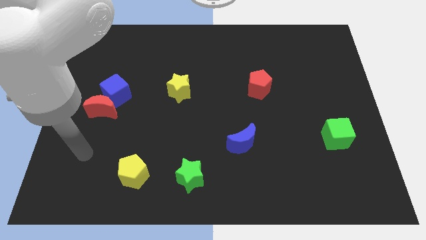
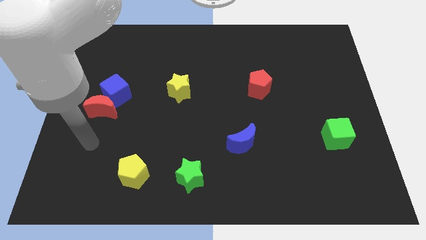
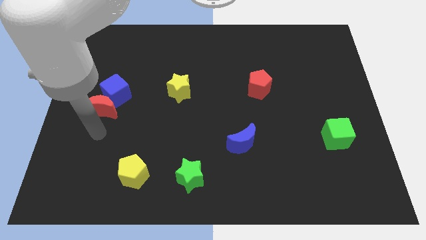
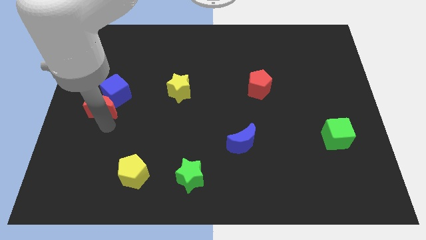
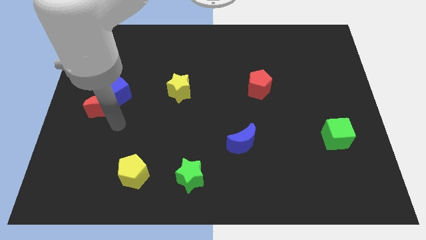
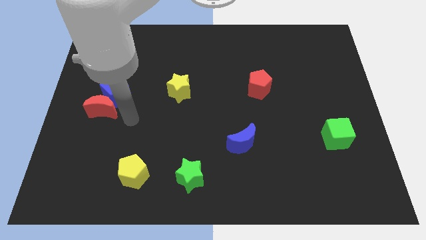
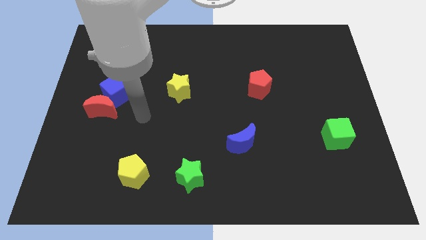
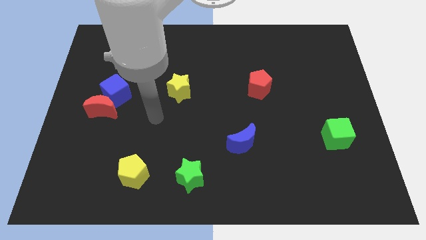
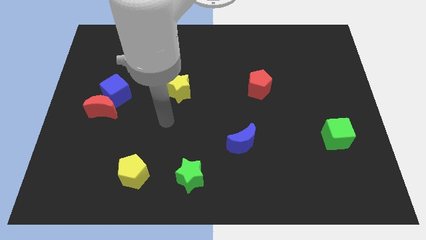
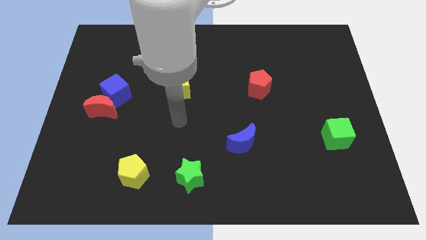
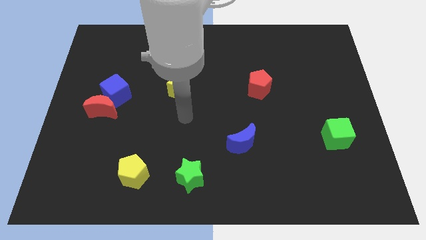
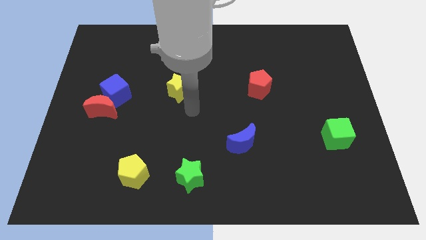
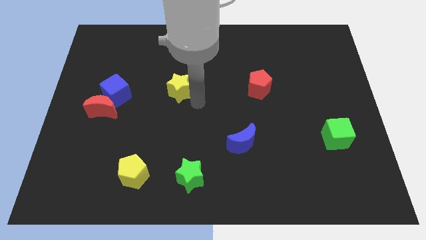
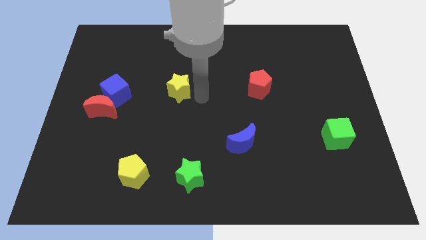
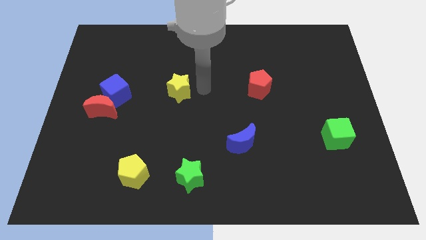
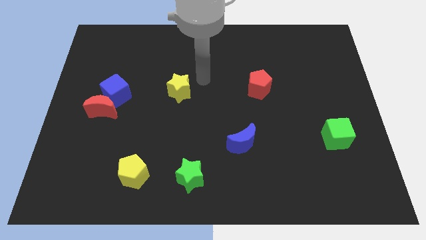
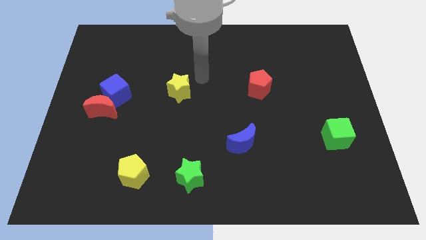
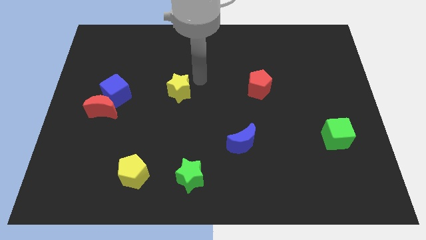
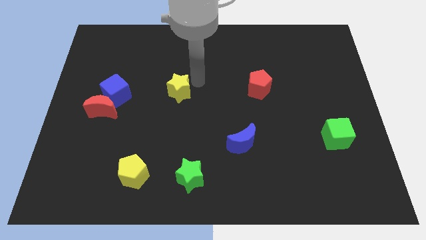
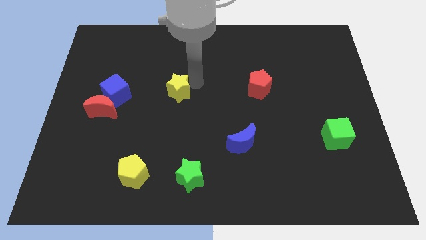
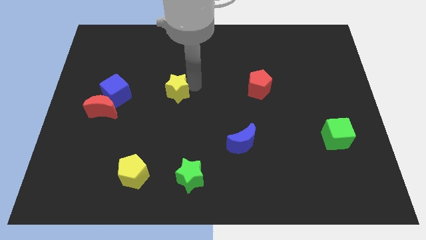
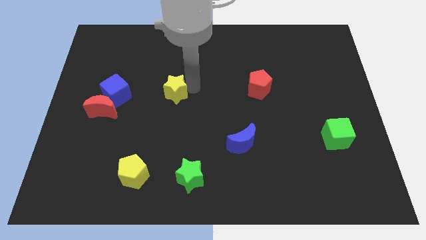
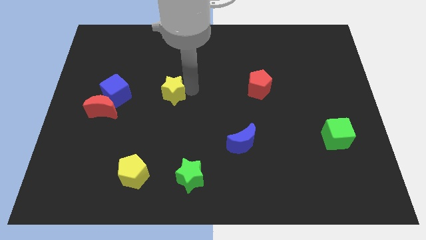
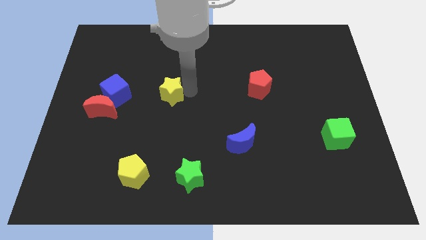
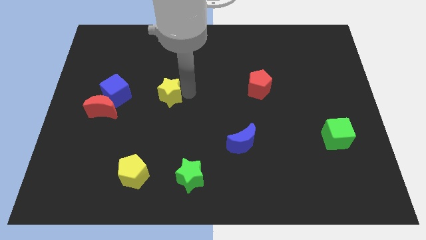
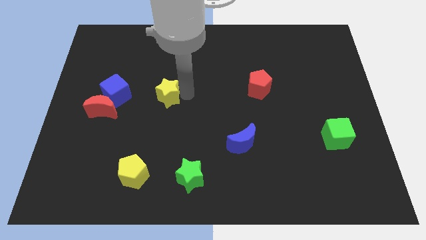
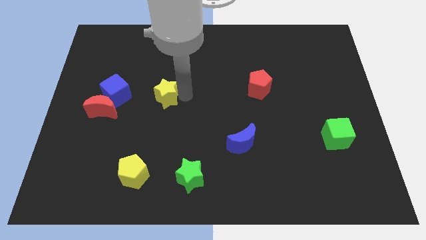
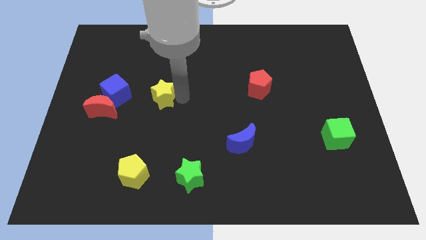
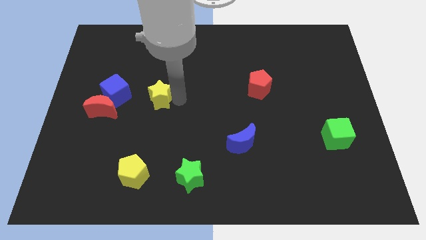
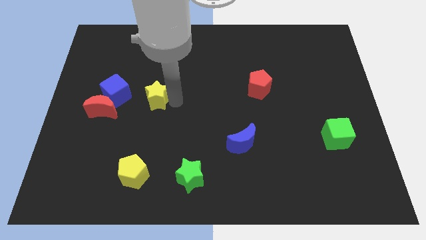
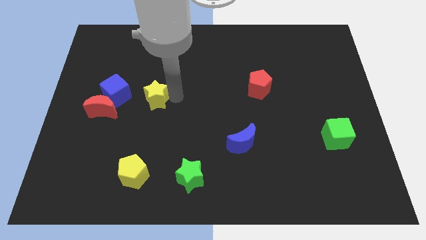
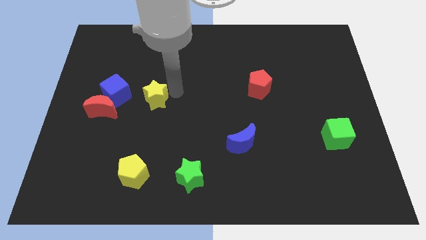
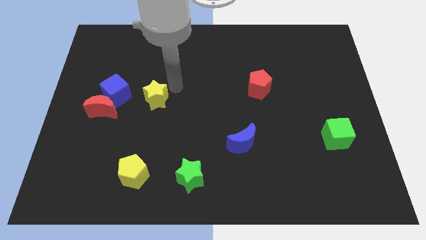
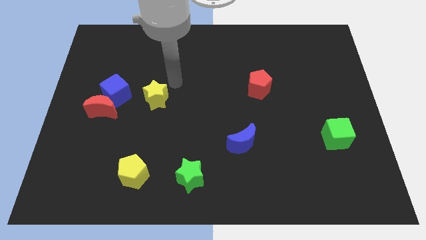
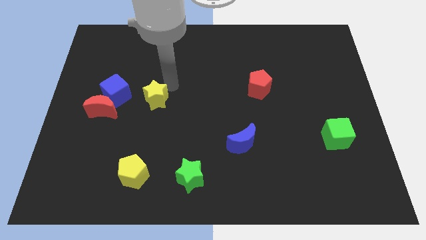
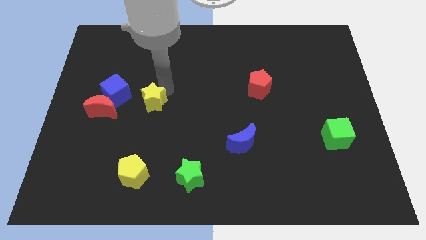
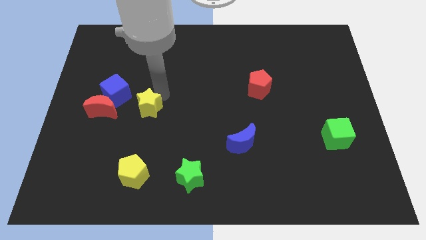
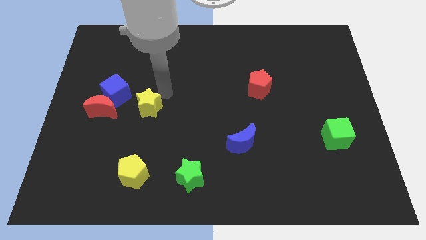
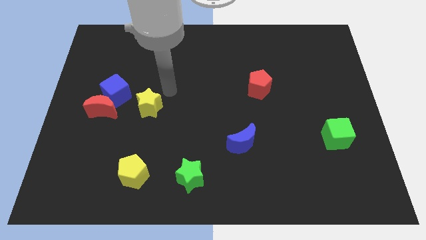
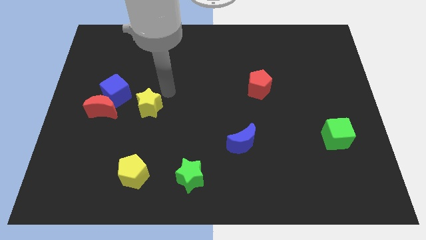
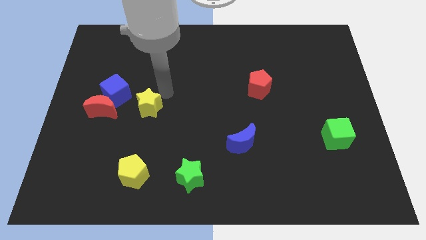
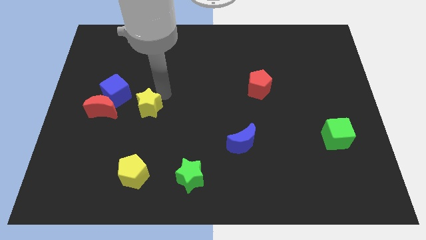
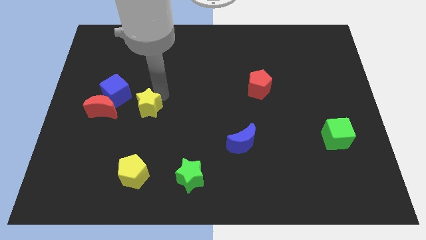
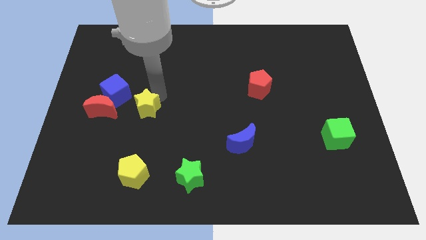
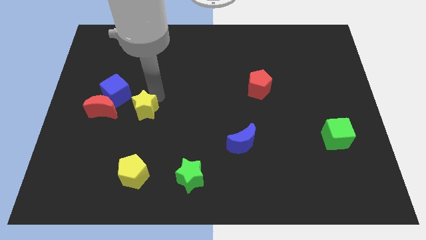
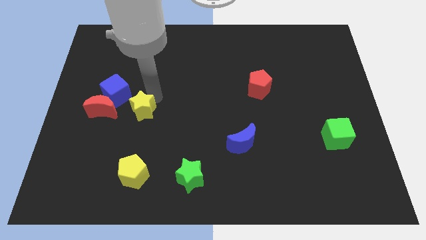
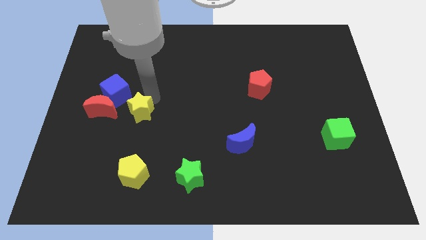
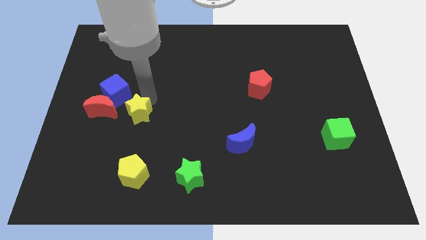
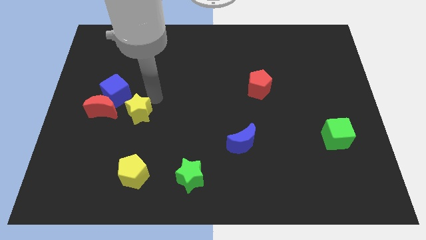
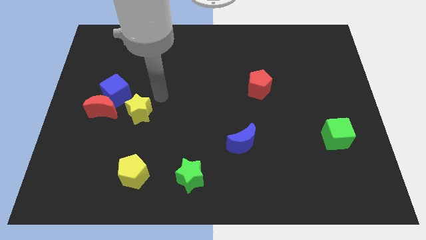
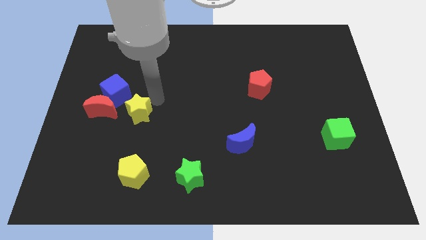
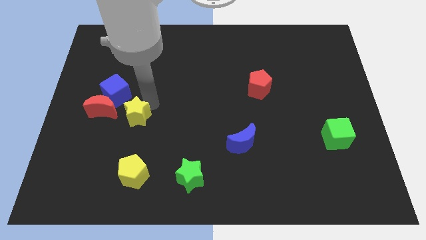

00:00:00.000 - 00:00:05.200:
push the yellow star to the bottom right of the red moon

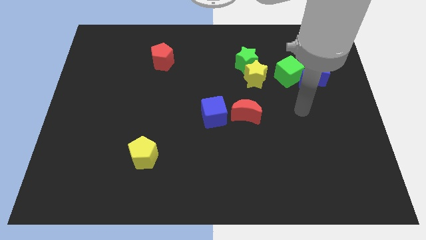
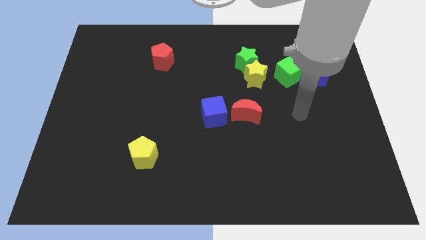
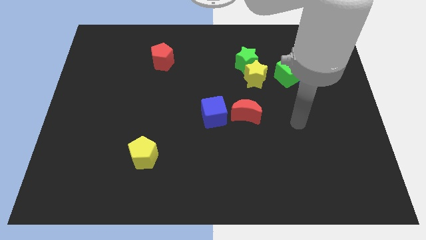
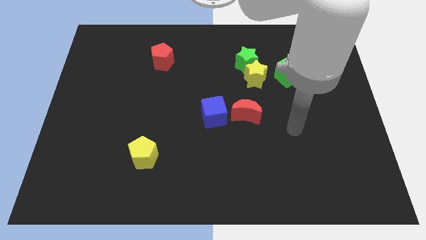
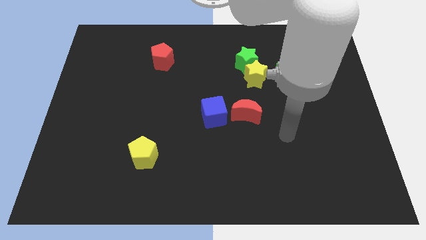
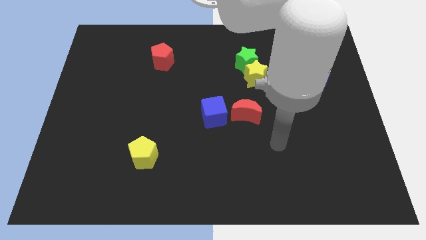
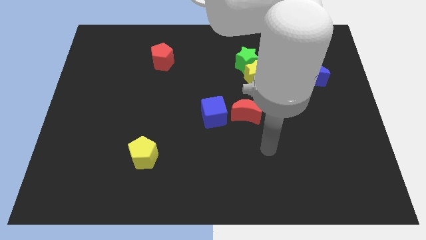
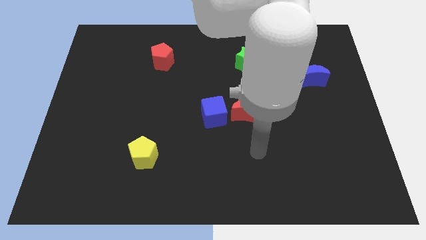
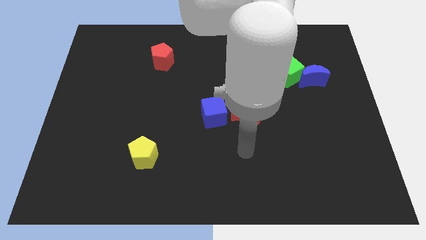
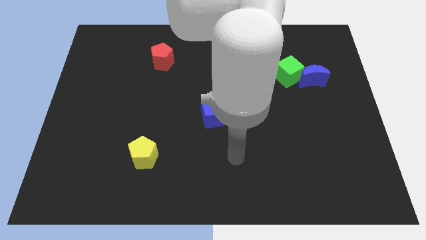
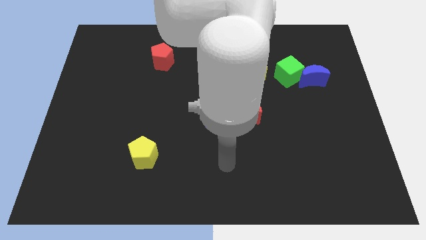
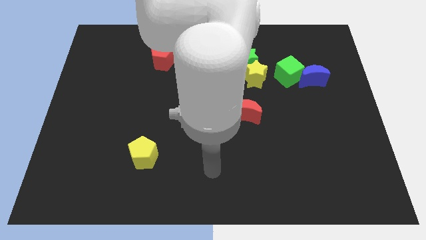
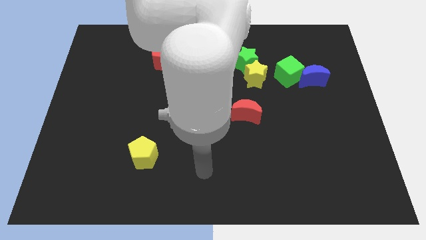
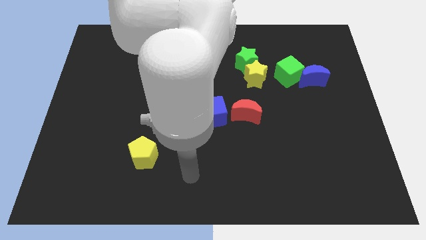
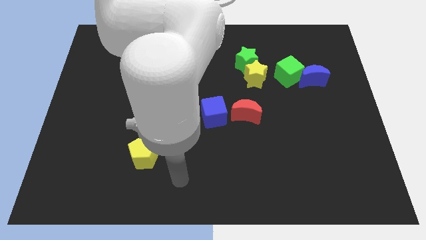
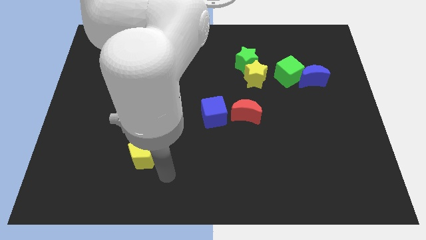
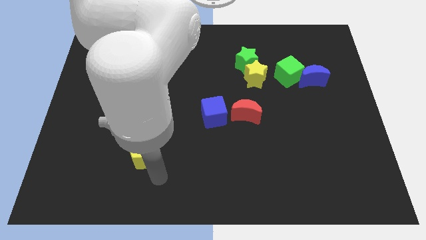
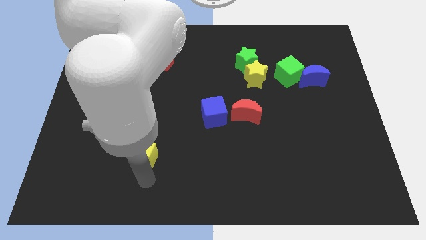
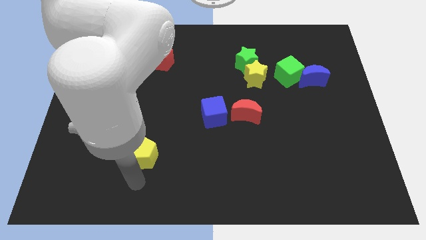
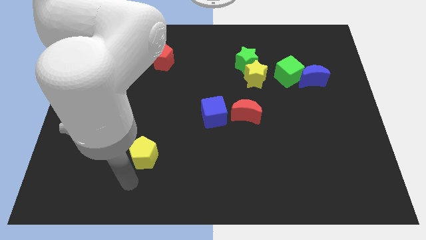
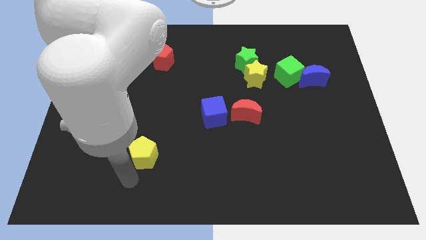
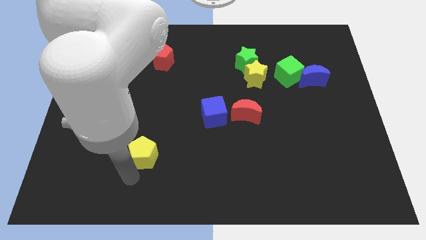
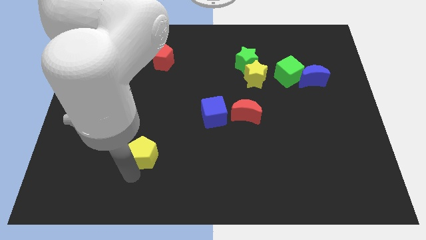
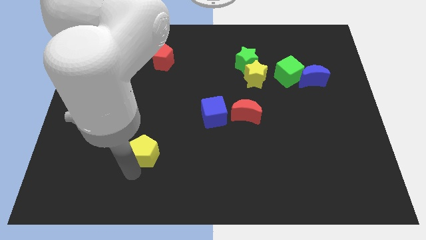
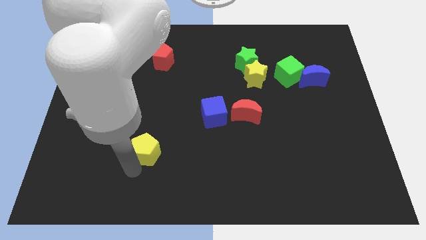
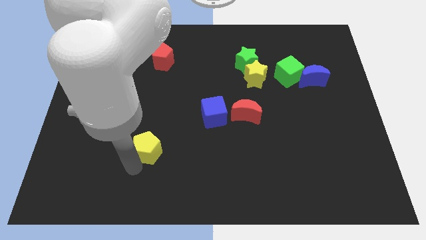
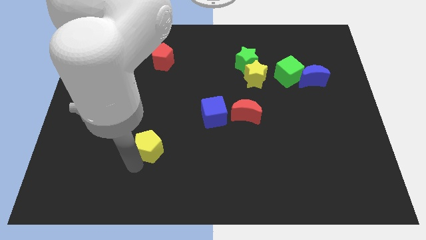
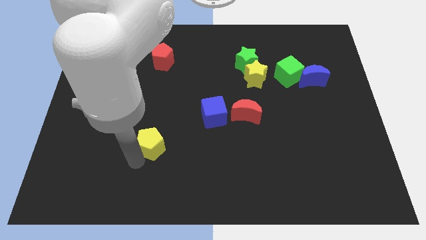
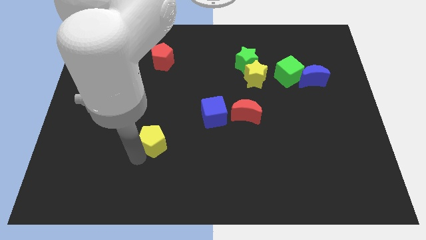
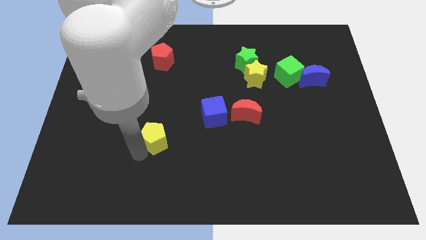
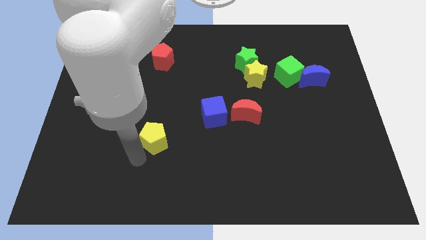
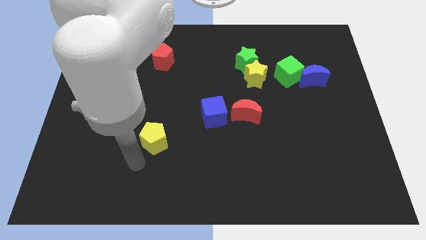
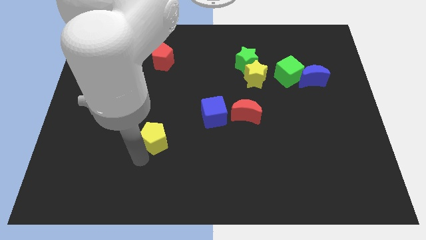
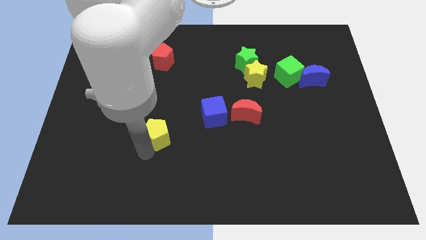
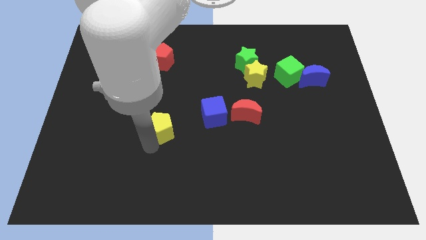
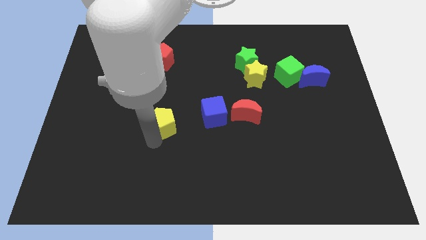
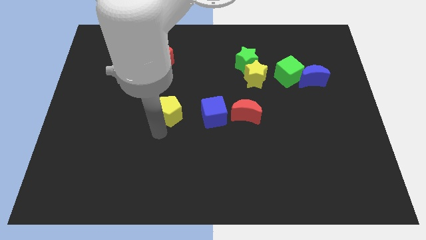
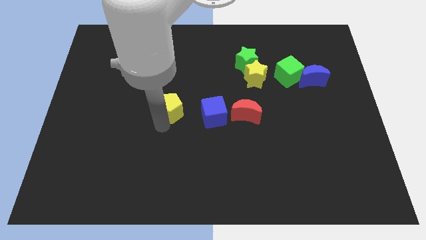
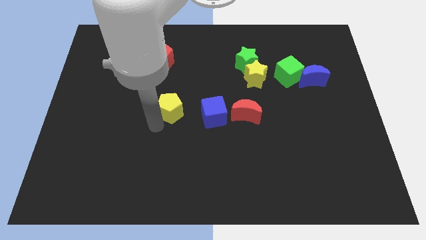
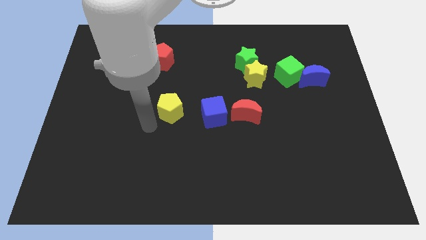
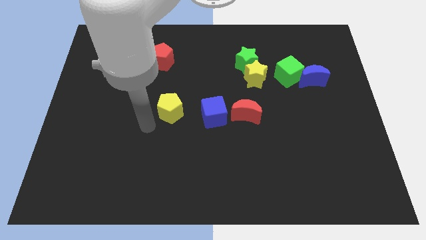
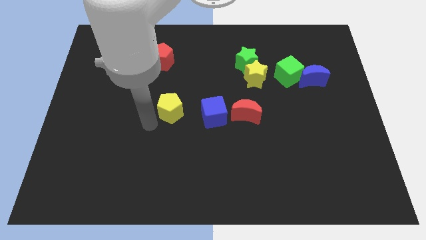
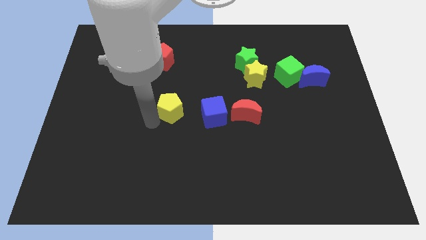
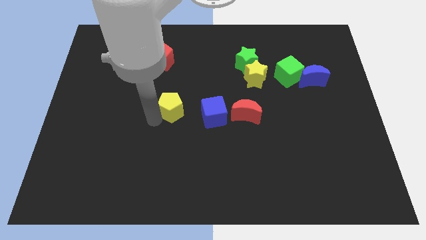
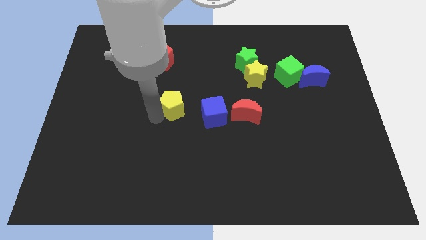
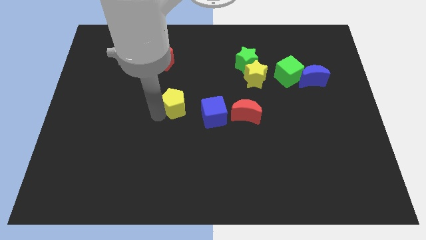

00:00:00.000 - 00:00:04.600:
slide the yellow pentagon to the top left side of the blue cube
